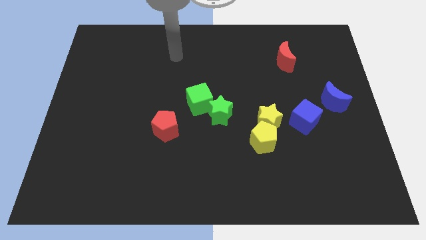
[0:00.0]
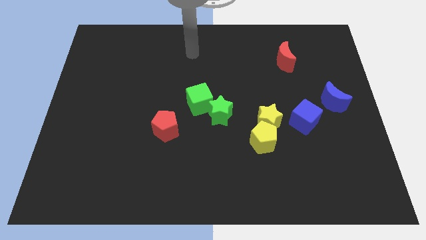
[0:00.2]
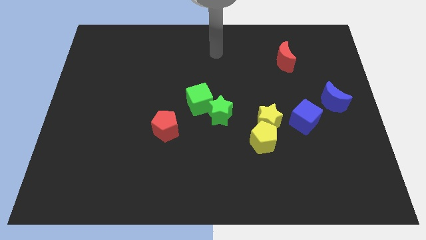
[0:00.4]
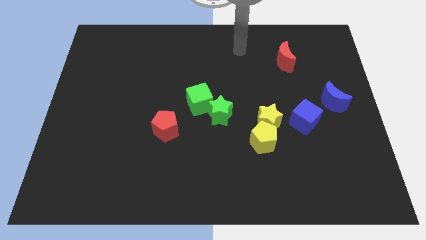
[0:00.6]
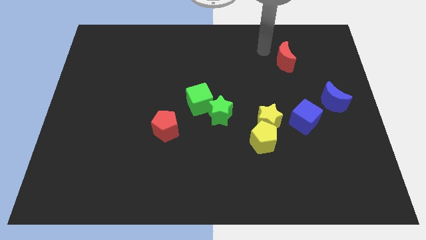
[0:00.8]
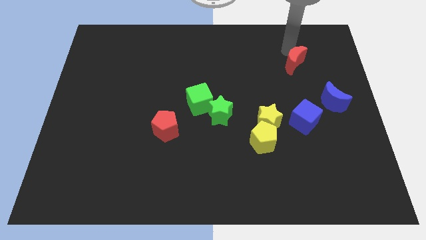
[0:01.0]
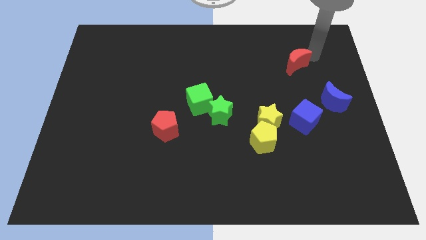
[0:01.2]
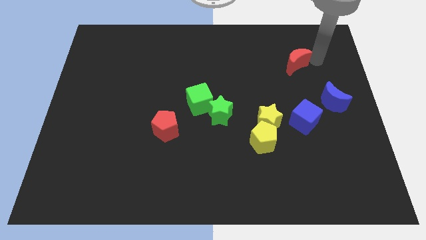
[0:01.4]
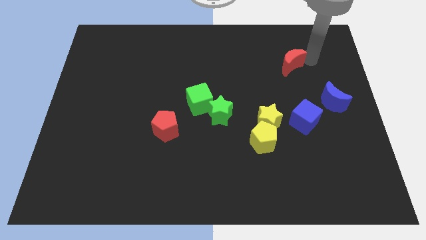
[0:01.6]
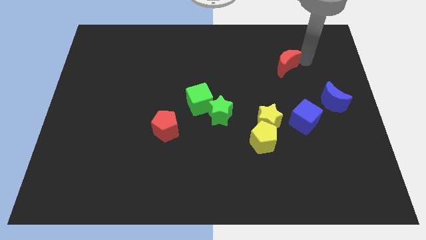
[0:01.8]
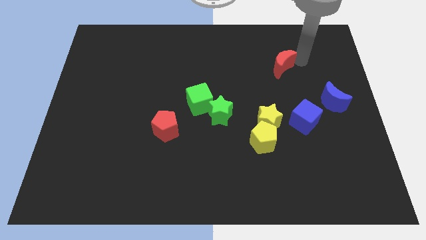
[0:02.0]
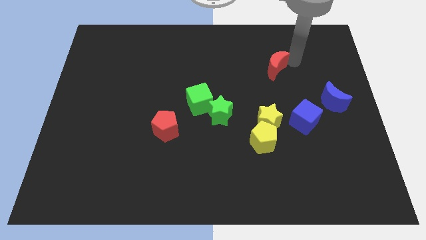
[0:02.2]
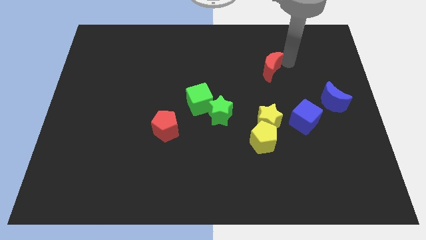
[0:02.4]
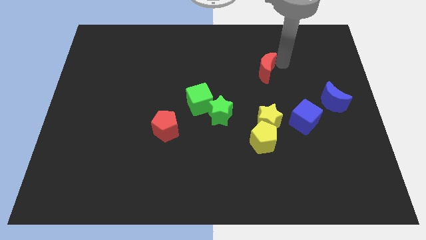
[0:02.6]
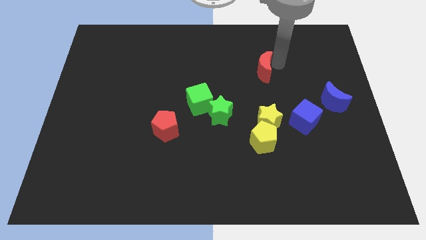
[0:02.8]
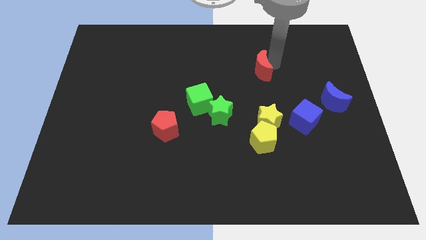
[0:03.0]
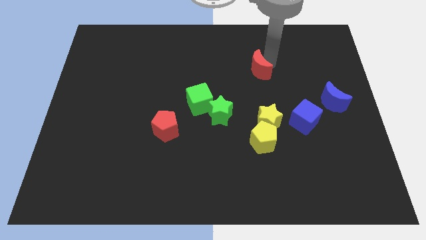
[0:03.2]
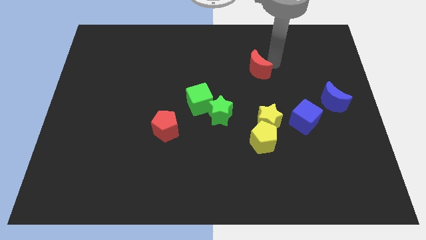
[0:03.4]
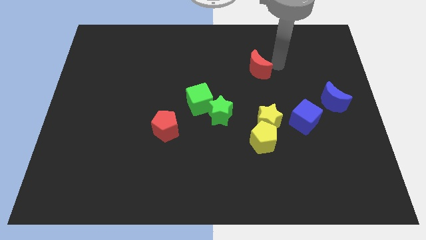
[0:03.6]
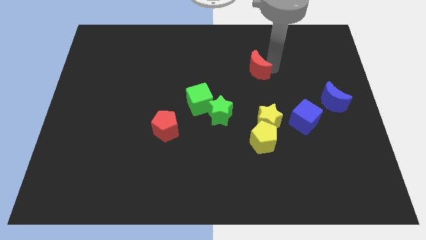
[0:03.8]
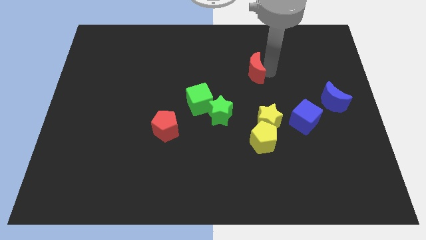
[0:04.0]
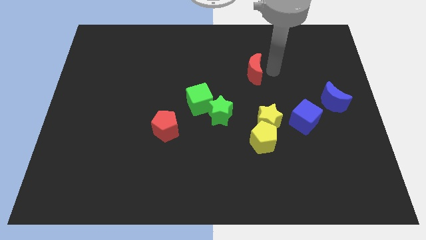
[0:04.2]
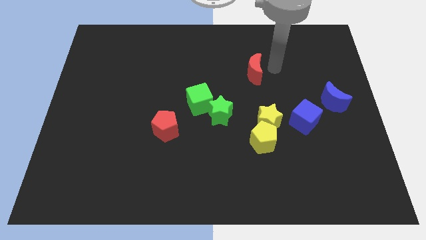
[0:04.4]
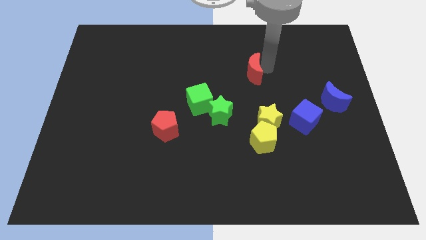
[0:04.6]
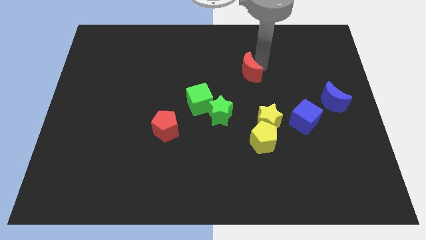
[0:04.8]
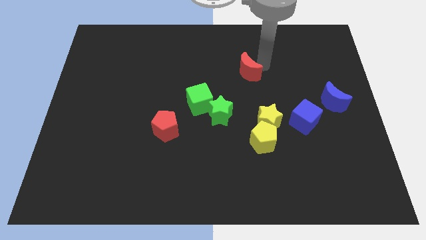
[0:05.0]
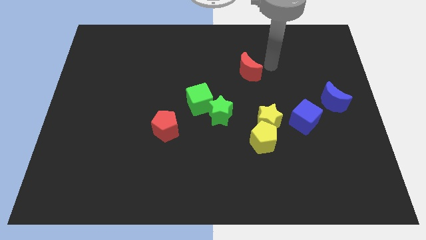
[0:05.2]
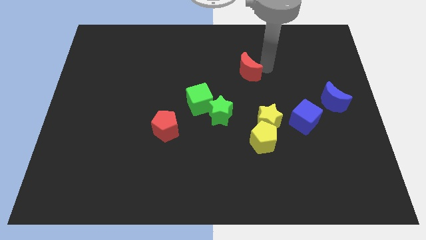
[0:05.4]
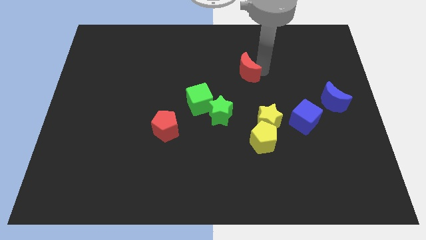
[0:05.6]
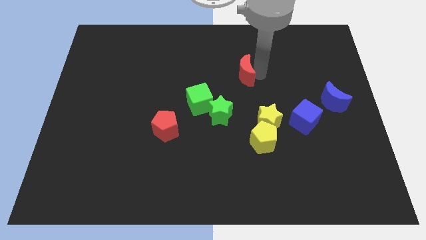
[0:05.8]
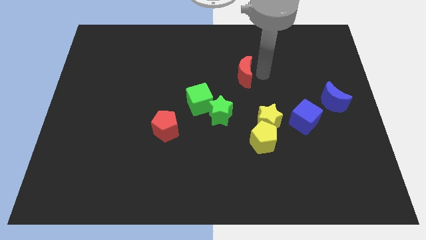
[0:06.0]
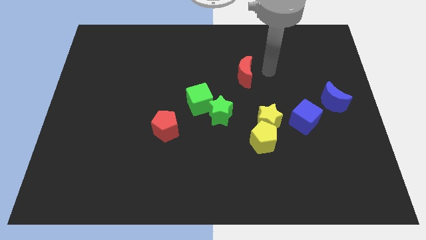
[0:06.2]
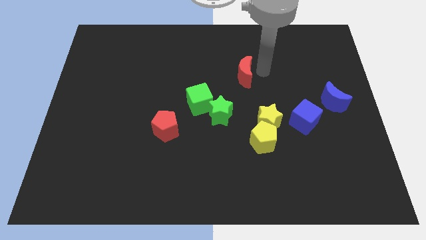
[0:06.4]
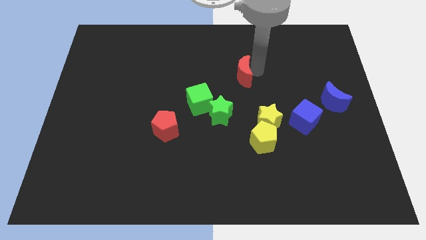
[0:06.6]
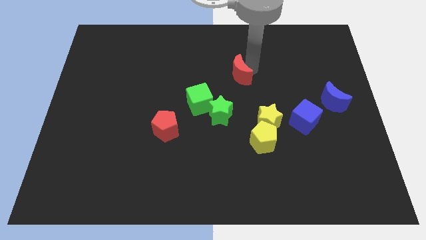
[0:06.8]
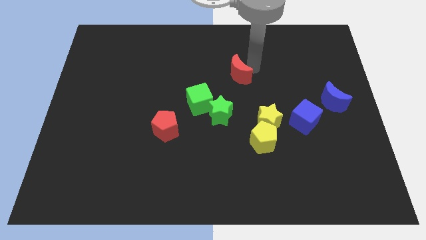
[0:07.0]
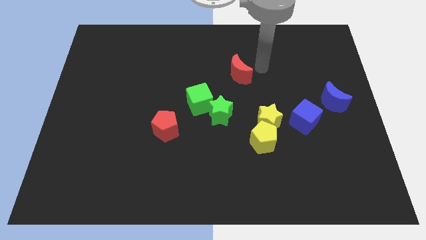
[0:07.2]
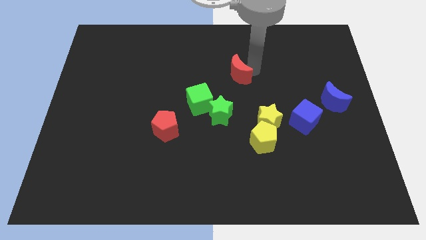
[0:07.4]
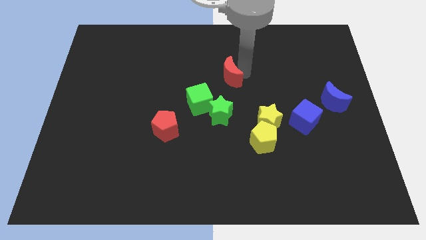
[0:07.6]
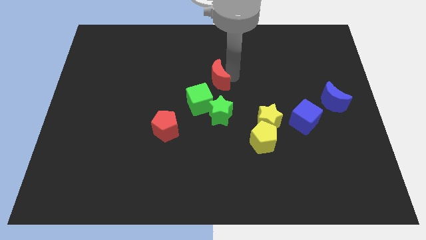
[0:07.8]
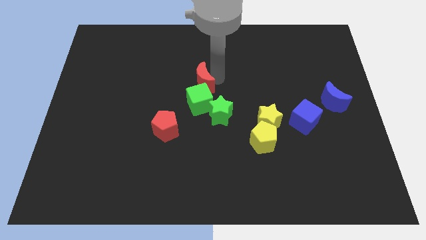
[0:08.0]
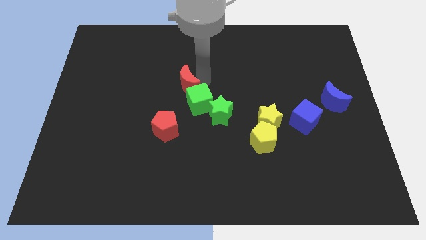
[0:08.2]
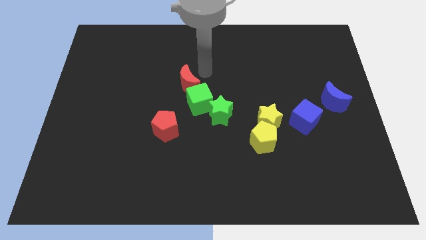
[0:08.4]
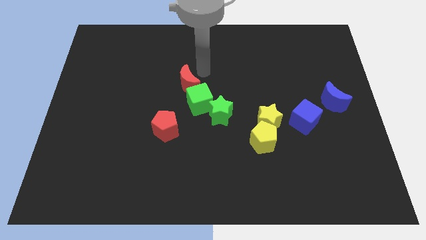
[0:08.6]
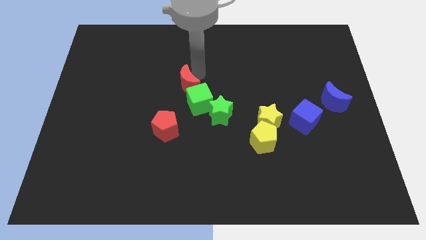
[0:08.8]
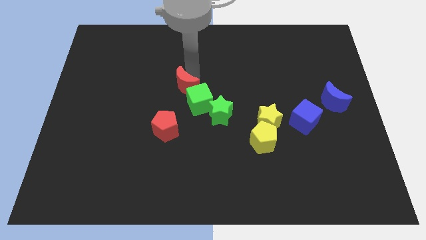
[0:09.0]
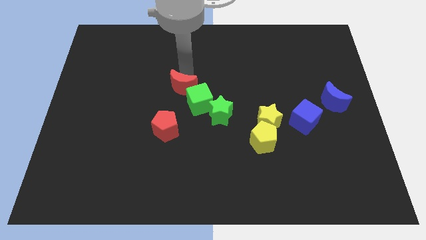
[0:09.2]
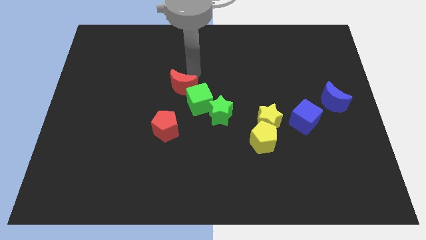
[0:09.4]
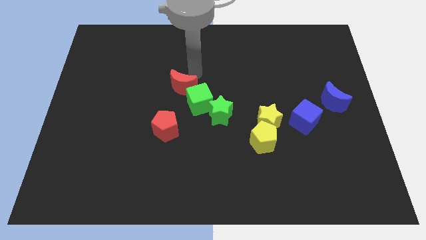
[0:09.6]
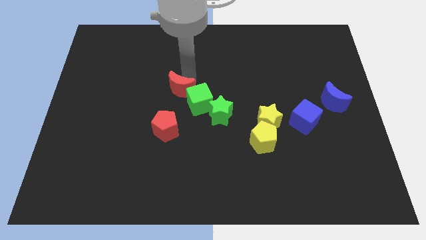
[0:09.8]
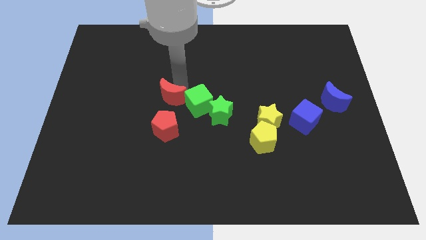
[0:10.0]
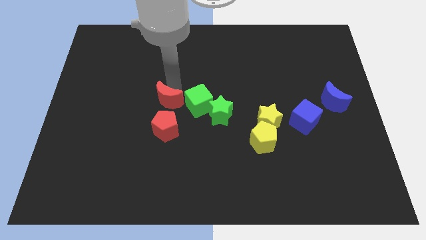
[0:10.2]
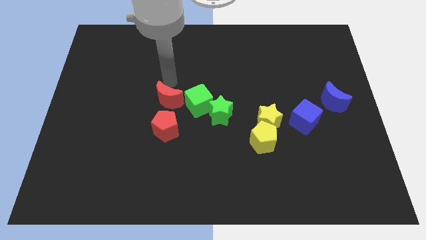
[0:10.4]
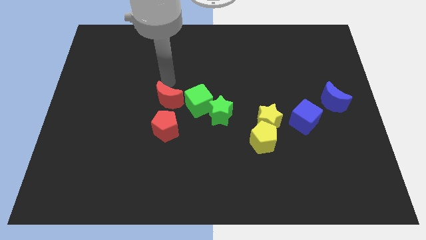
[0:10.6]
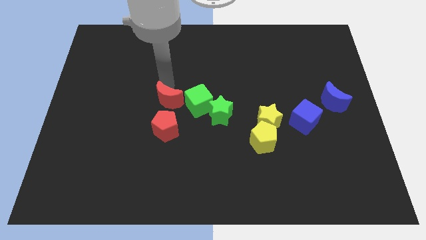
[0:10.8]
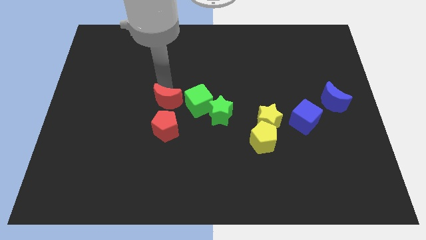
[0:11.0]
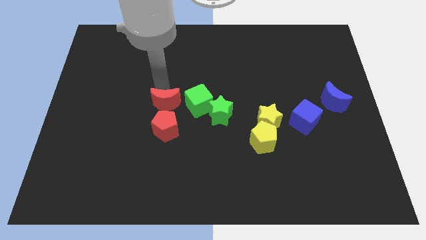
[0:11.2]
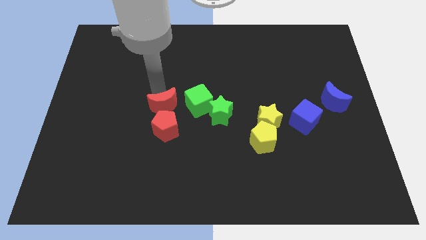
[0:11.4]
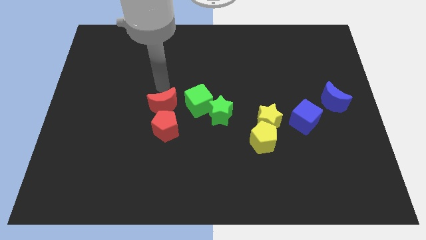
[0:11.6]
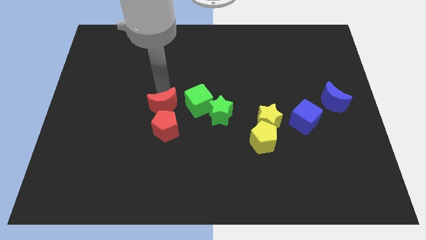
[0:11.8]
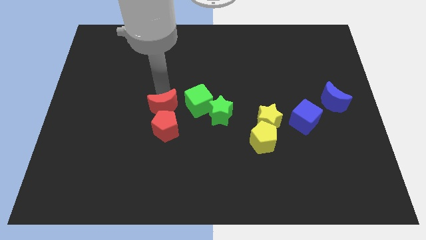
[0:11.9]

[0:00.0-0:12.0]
slide the red moon next to the red pentagon

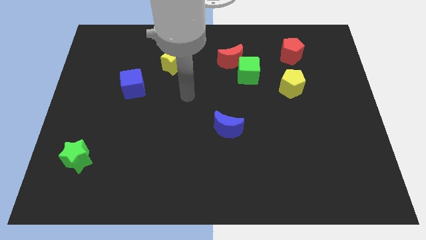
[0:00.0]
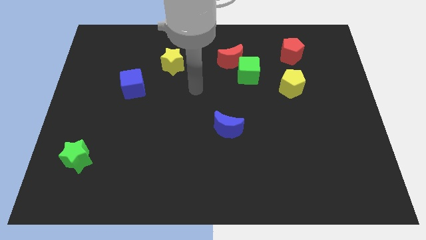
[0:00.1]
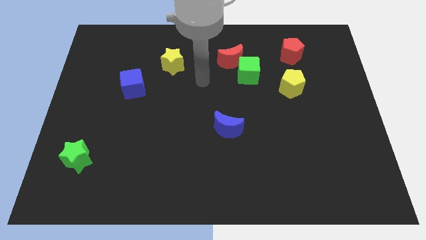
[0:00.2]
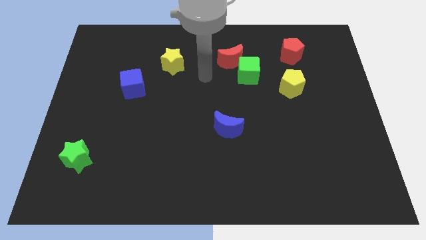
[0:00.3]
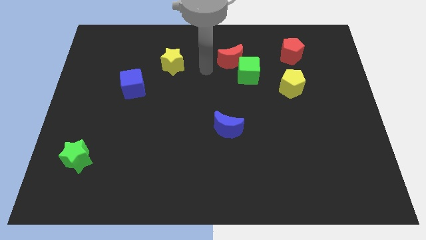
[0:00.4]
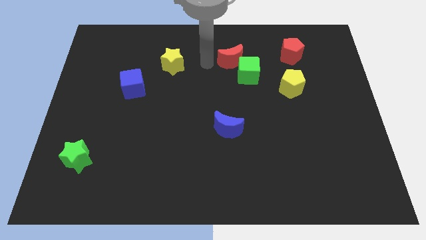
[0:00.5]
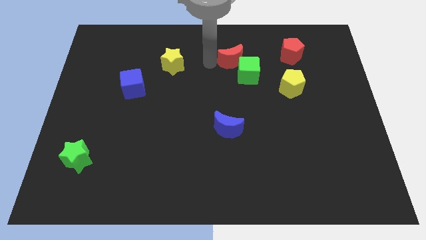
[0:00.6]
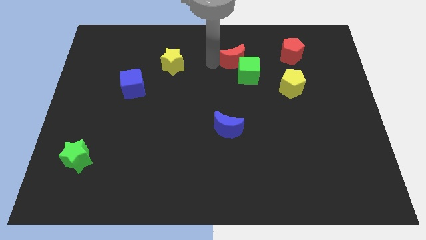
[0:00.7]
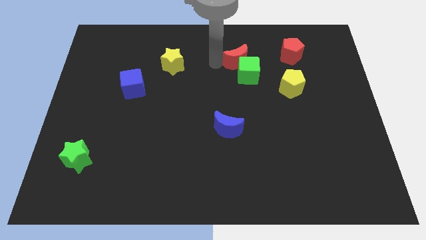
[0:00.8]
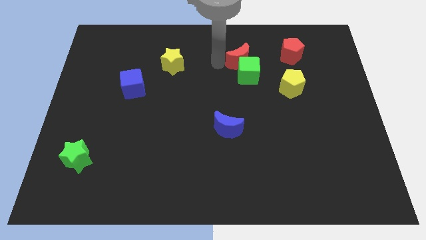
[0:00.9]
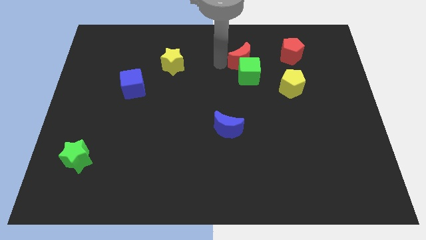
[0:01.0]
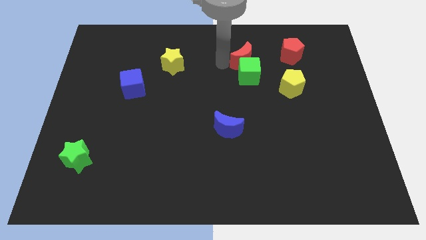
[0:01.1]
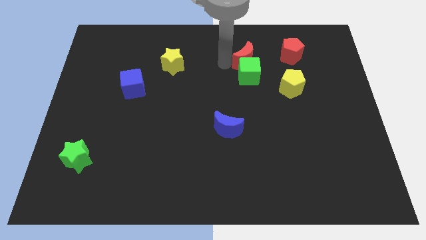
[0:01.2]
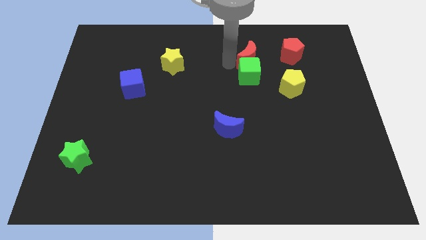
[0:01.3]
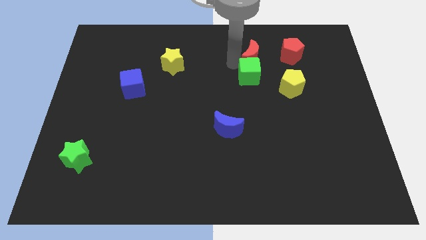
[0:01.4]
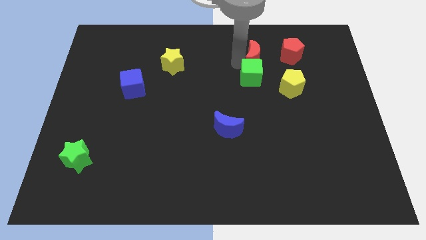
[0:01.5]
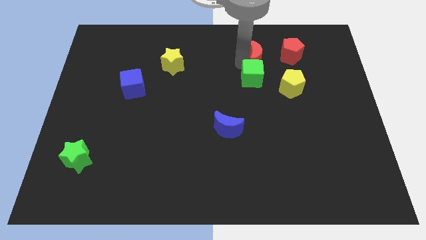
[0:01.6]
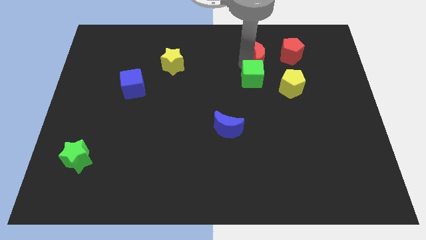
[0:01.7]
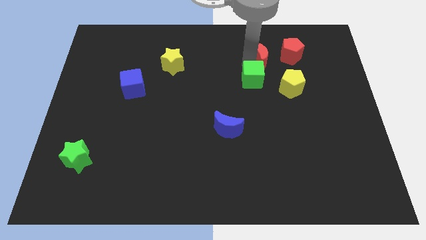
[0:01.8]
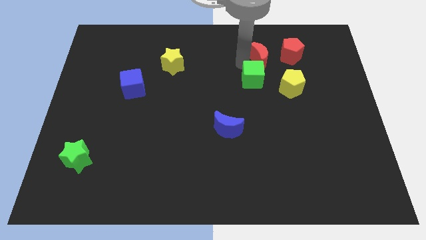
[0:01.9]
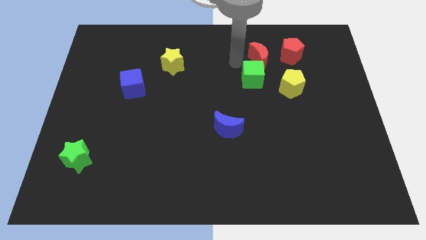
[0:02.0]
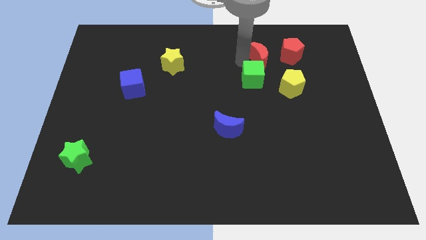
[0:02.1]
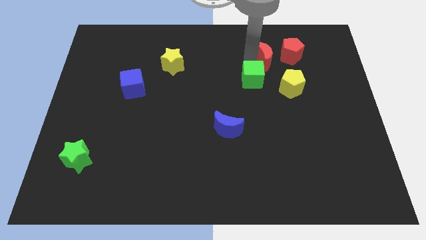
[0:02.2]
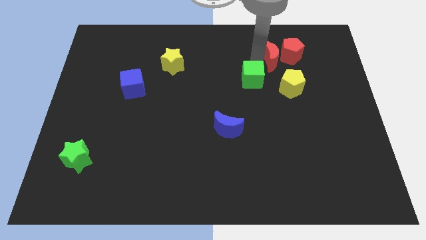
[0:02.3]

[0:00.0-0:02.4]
slide the red moon towards the red pentagon
